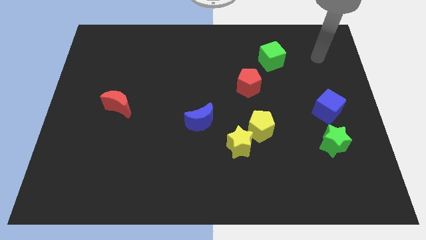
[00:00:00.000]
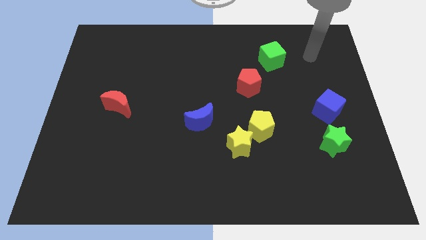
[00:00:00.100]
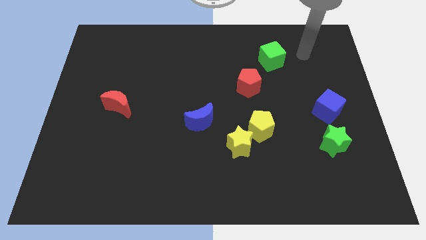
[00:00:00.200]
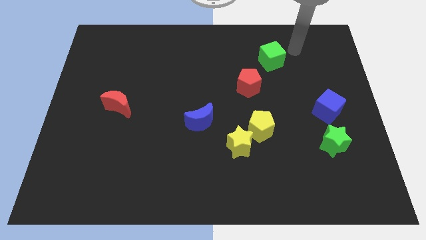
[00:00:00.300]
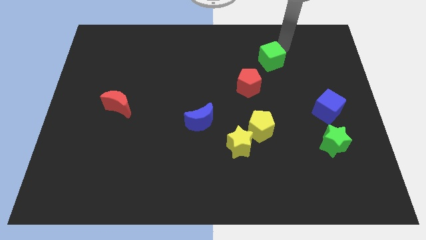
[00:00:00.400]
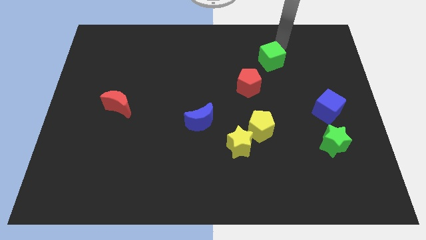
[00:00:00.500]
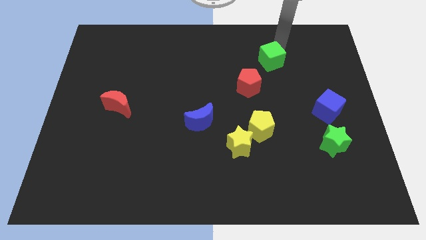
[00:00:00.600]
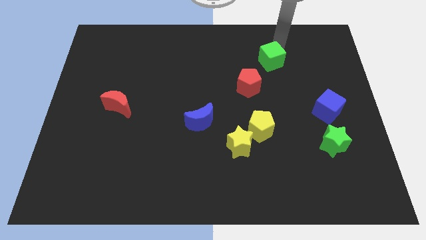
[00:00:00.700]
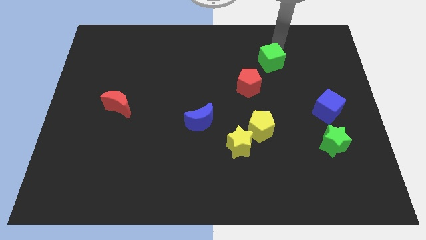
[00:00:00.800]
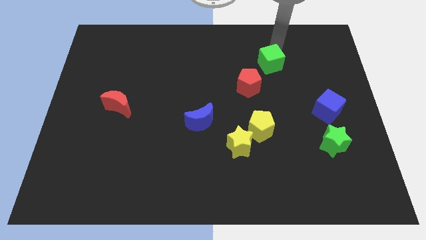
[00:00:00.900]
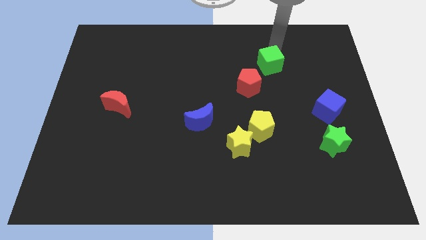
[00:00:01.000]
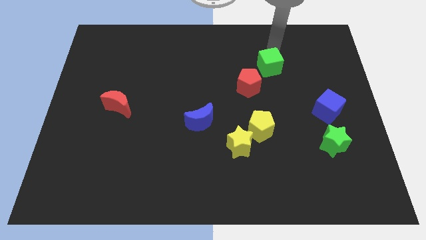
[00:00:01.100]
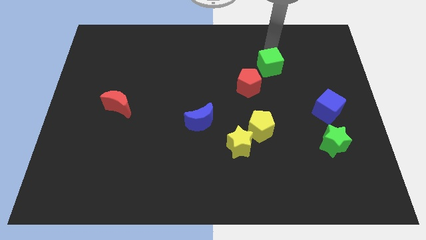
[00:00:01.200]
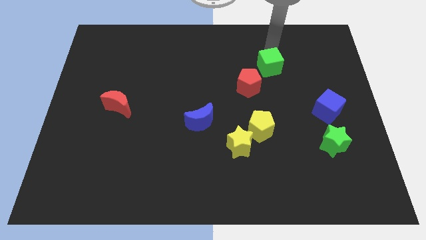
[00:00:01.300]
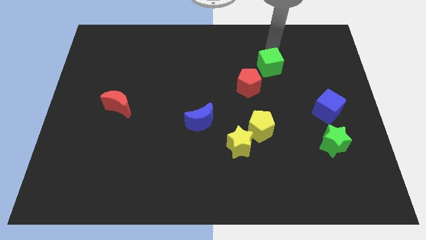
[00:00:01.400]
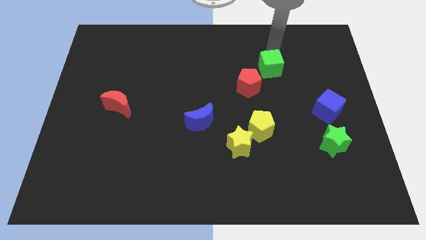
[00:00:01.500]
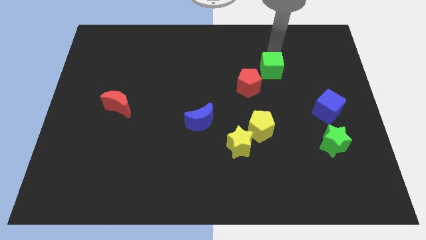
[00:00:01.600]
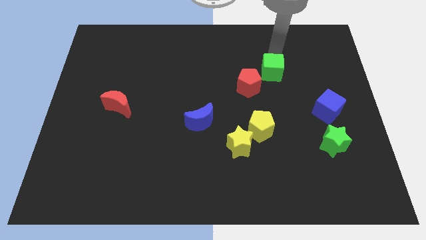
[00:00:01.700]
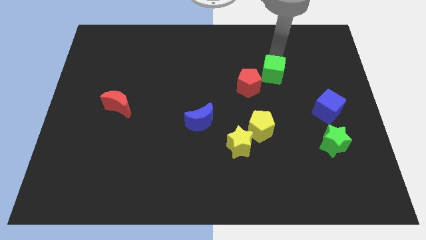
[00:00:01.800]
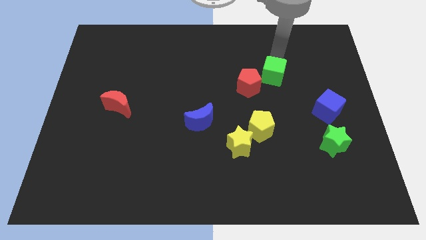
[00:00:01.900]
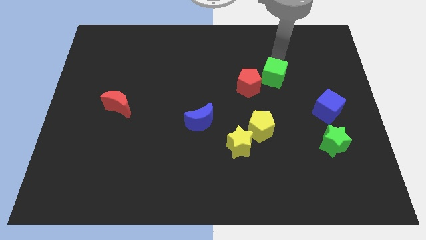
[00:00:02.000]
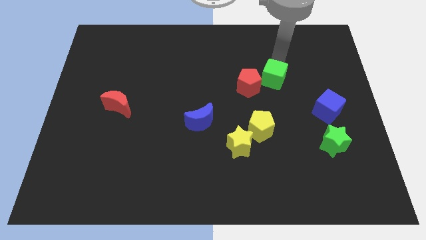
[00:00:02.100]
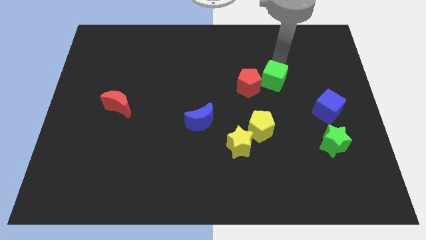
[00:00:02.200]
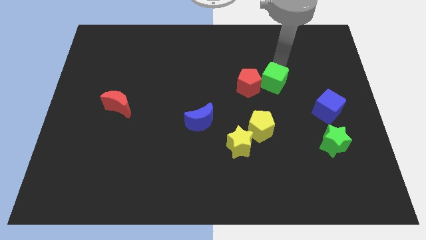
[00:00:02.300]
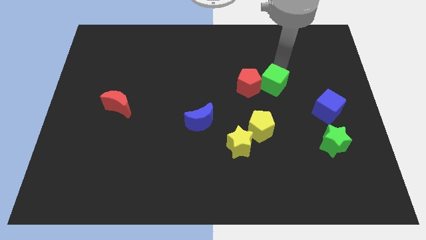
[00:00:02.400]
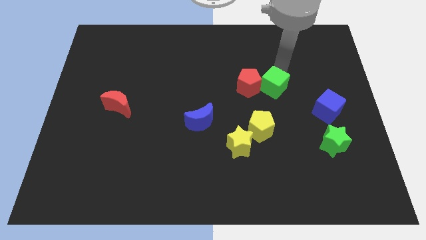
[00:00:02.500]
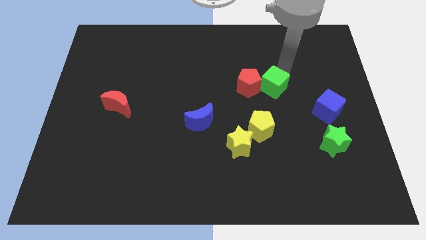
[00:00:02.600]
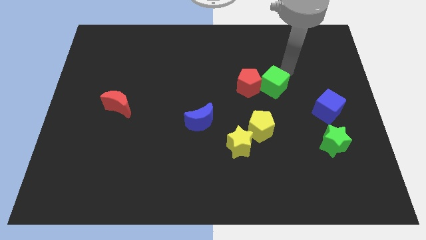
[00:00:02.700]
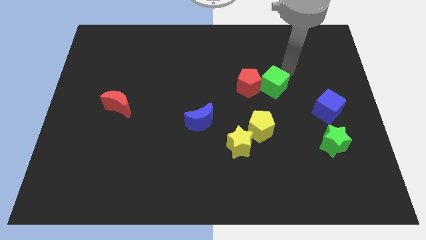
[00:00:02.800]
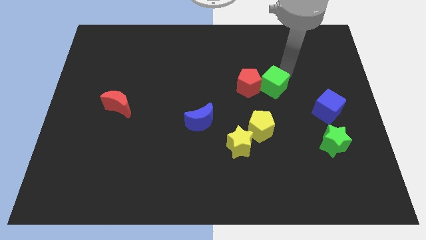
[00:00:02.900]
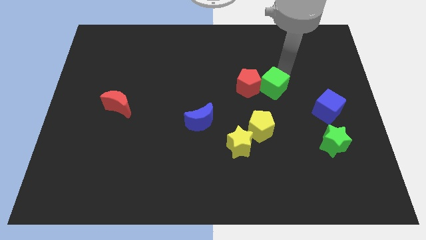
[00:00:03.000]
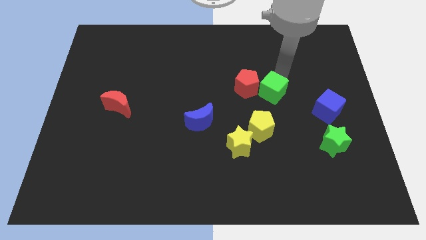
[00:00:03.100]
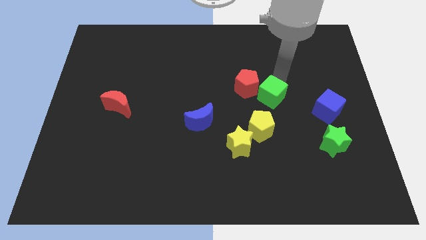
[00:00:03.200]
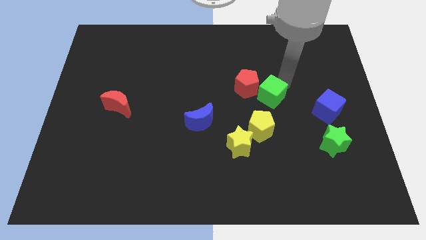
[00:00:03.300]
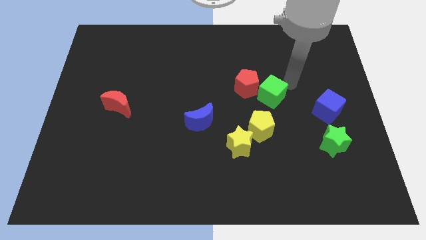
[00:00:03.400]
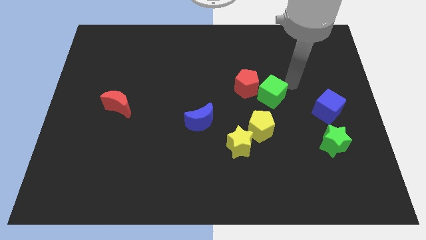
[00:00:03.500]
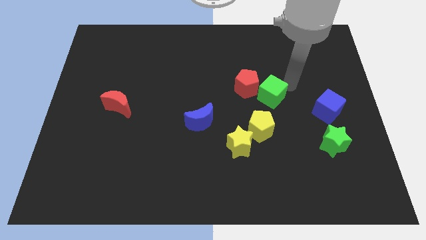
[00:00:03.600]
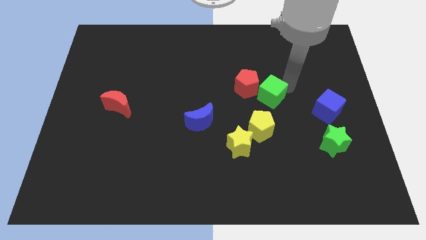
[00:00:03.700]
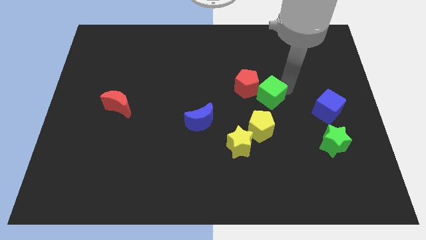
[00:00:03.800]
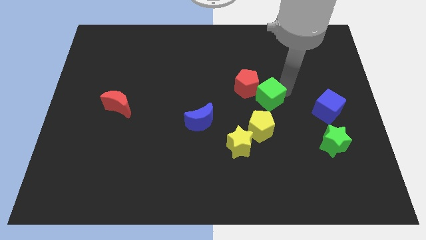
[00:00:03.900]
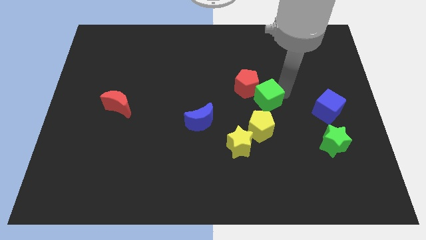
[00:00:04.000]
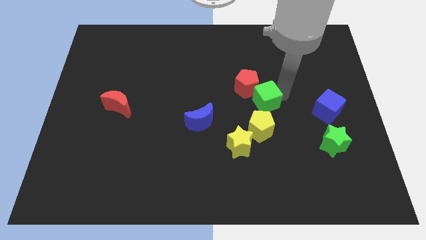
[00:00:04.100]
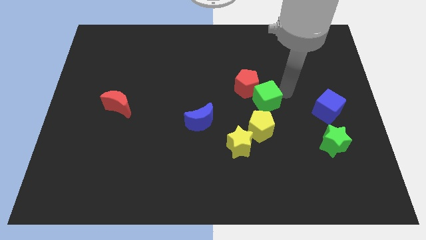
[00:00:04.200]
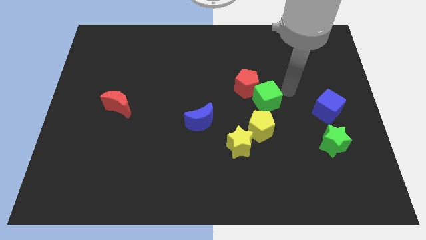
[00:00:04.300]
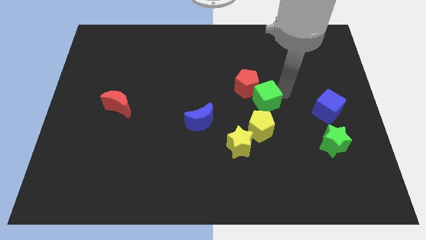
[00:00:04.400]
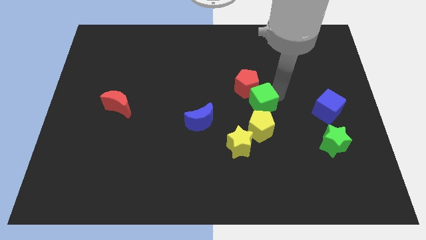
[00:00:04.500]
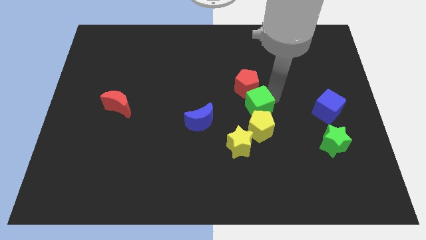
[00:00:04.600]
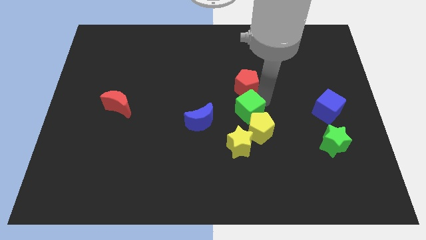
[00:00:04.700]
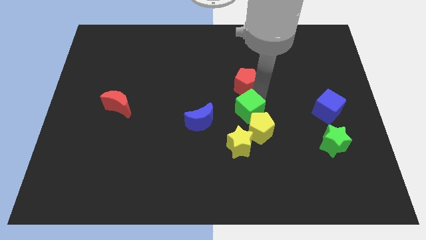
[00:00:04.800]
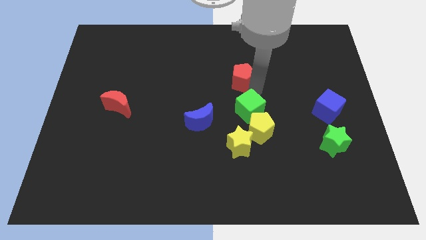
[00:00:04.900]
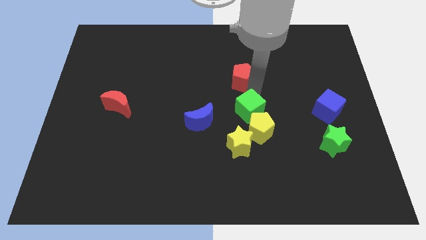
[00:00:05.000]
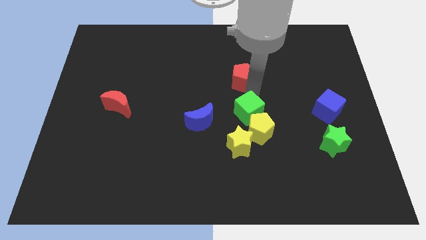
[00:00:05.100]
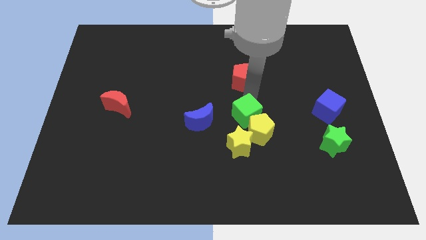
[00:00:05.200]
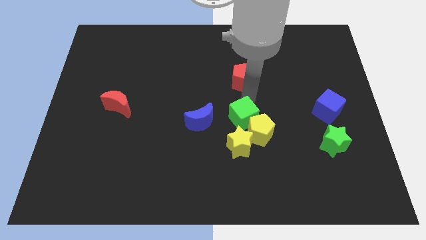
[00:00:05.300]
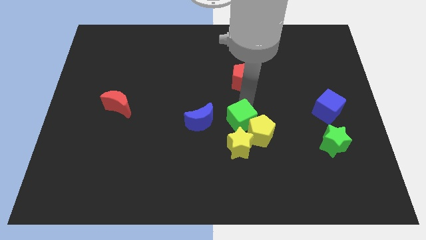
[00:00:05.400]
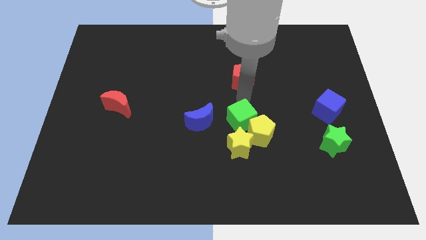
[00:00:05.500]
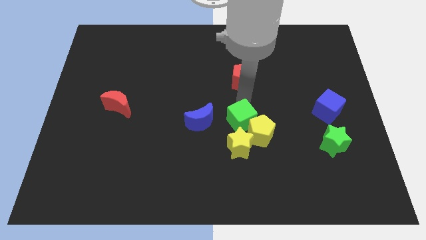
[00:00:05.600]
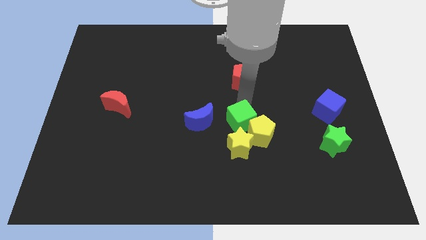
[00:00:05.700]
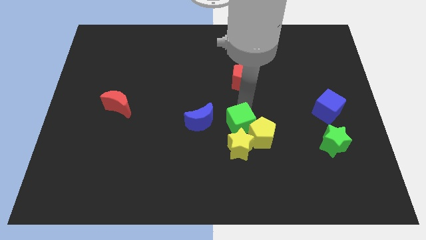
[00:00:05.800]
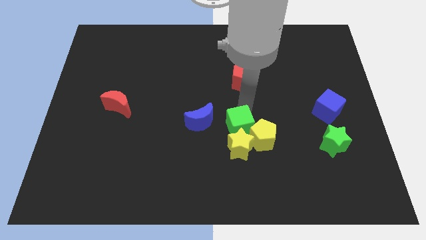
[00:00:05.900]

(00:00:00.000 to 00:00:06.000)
push the green cube close to the yellow star

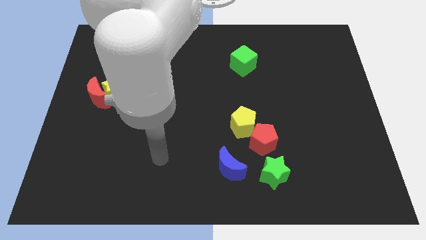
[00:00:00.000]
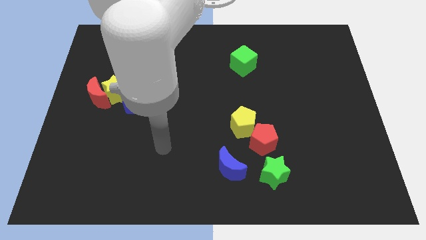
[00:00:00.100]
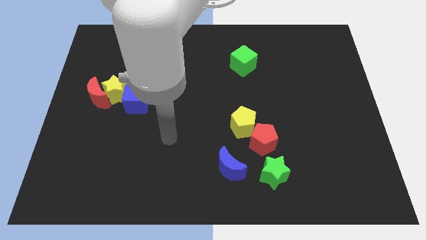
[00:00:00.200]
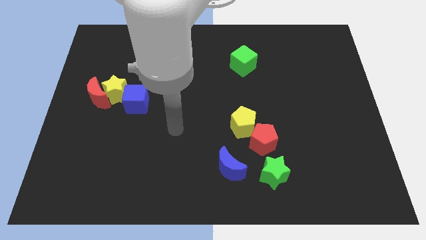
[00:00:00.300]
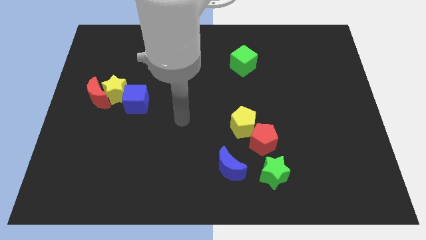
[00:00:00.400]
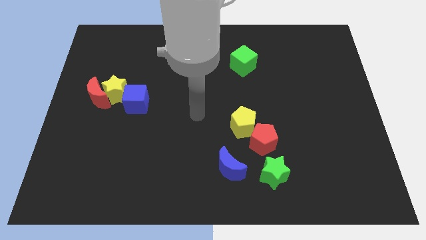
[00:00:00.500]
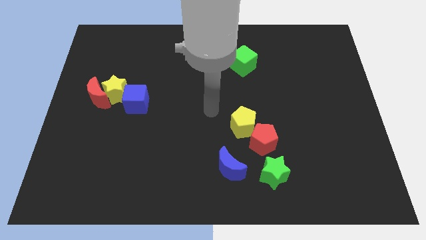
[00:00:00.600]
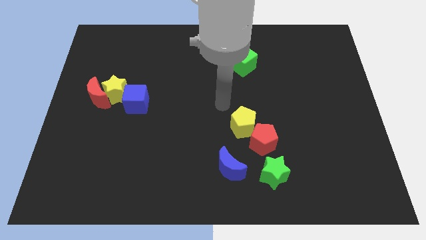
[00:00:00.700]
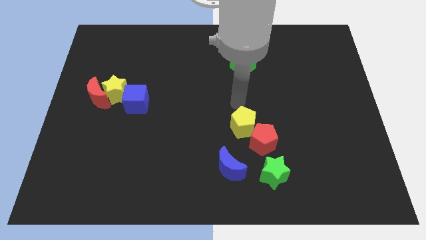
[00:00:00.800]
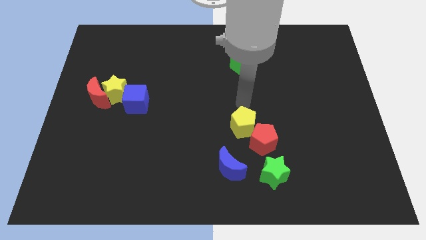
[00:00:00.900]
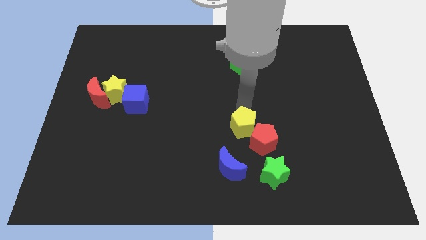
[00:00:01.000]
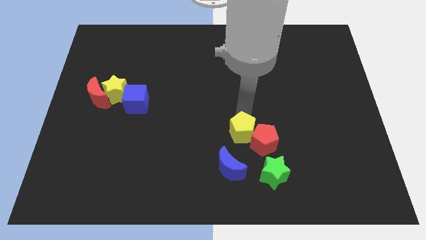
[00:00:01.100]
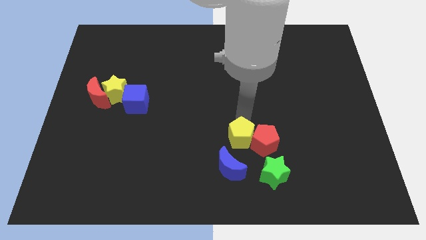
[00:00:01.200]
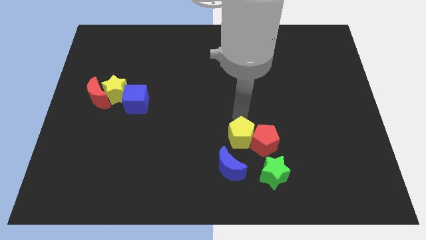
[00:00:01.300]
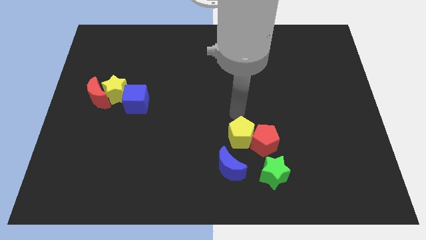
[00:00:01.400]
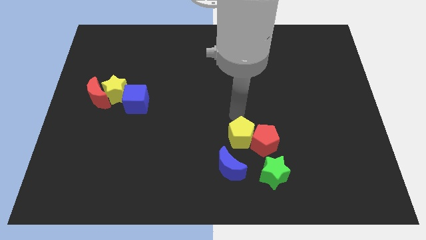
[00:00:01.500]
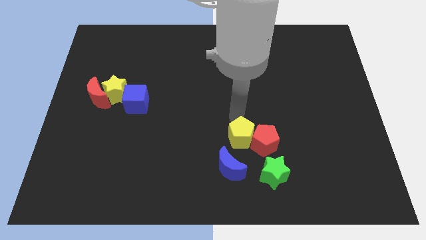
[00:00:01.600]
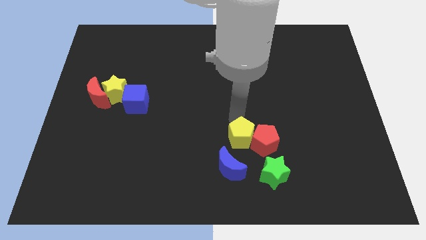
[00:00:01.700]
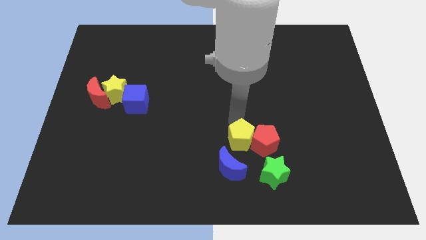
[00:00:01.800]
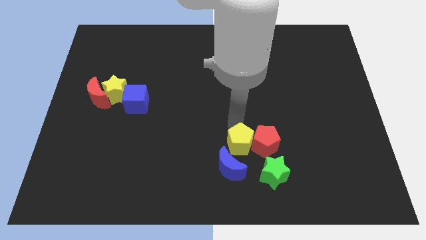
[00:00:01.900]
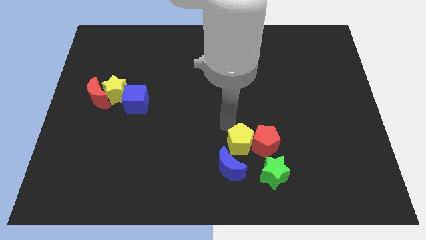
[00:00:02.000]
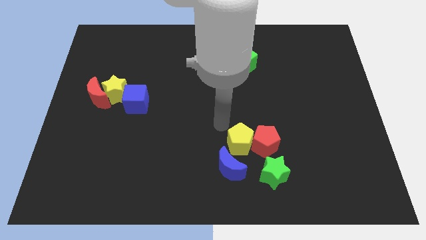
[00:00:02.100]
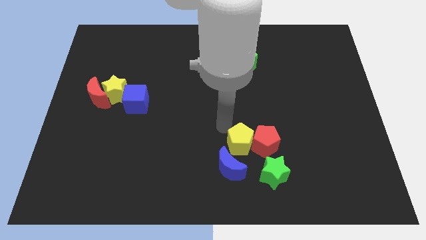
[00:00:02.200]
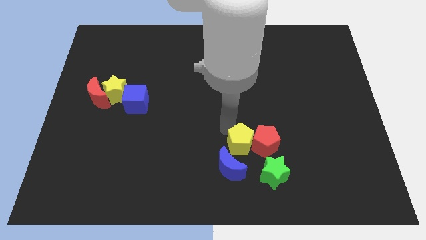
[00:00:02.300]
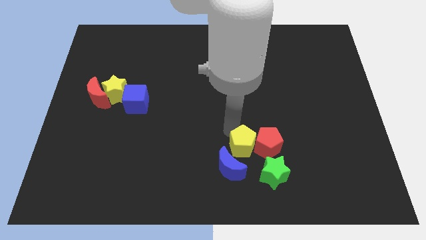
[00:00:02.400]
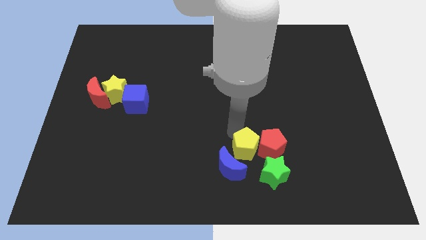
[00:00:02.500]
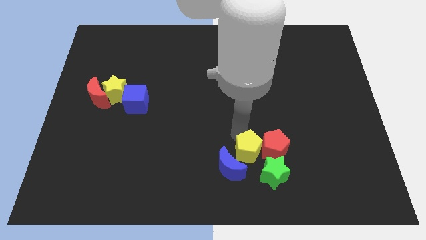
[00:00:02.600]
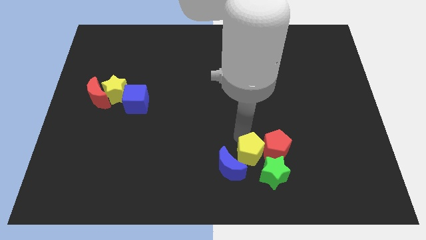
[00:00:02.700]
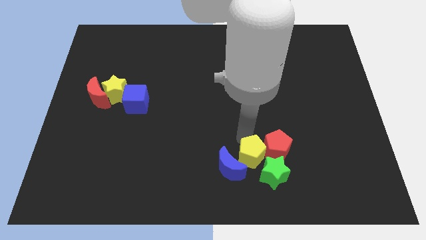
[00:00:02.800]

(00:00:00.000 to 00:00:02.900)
put the yellow pentagon next to the green star
